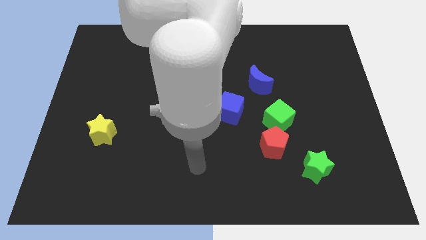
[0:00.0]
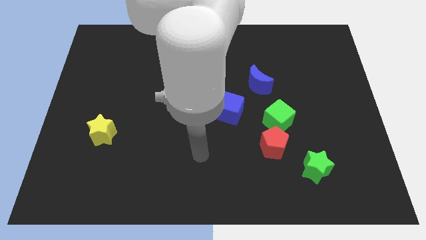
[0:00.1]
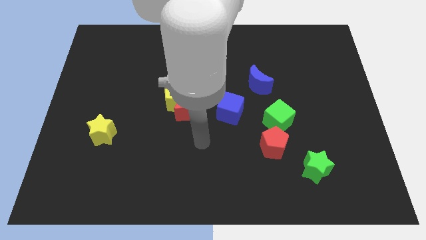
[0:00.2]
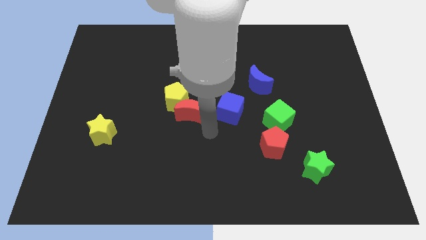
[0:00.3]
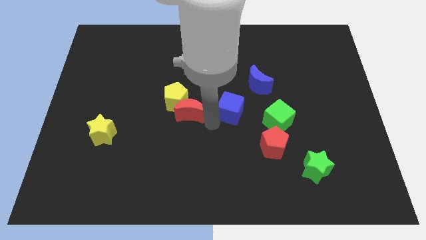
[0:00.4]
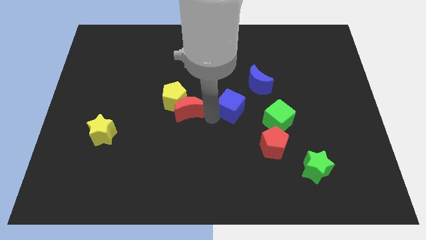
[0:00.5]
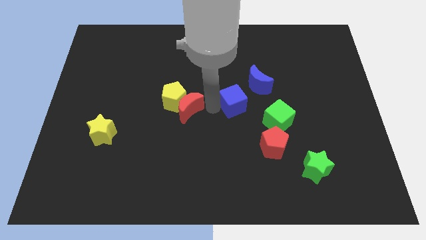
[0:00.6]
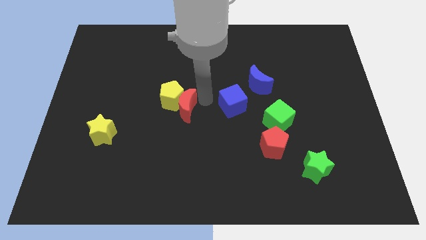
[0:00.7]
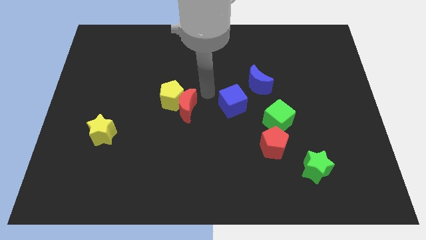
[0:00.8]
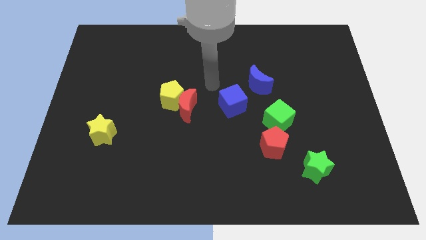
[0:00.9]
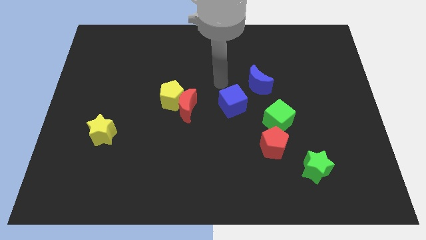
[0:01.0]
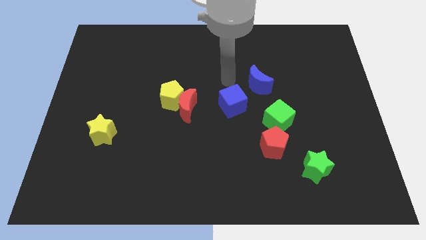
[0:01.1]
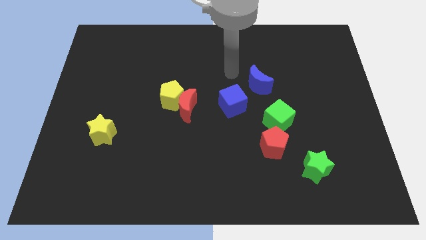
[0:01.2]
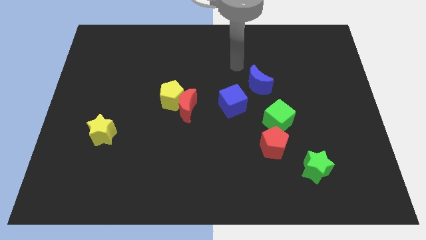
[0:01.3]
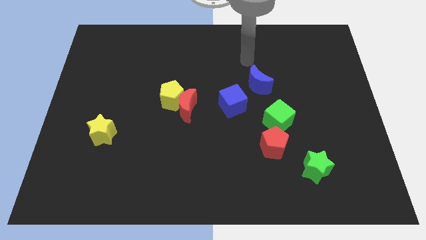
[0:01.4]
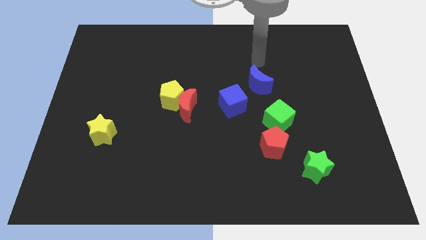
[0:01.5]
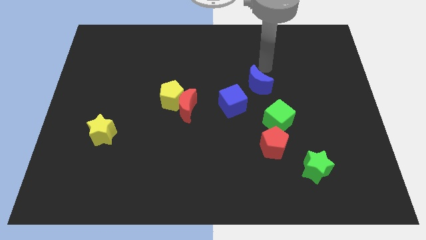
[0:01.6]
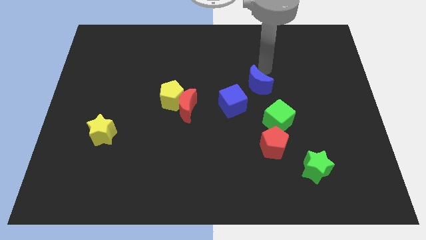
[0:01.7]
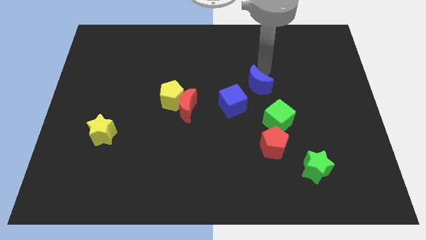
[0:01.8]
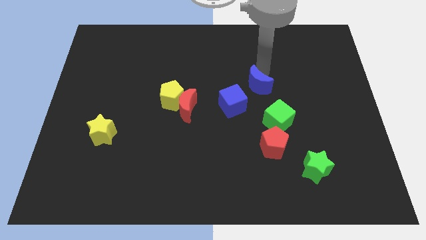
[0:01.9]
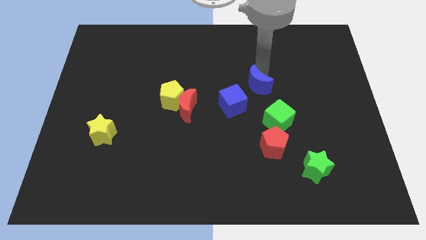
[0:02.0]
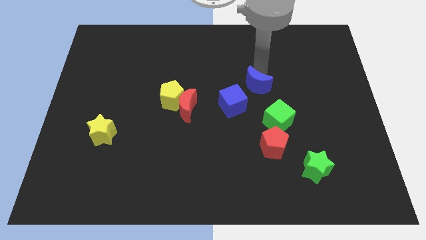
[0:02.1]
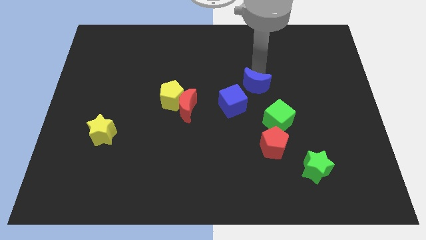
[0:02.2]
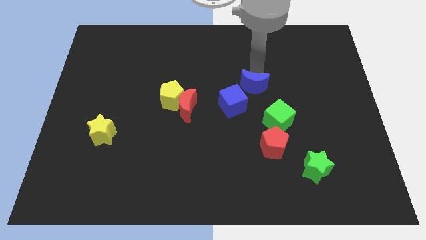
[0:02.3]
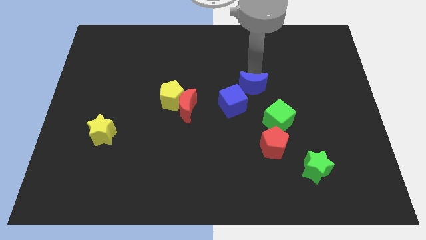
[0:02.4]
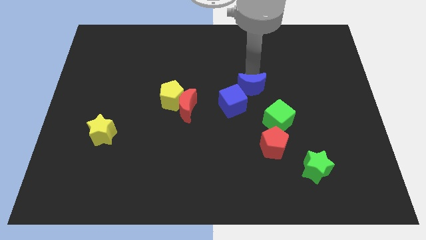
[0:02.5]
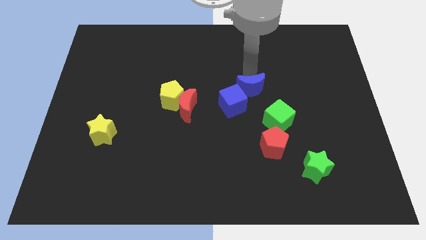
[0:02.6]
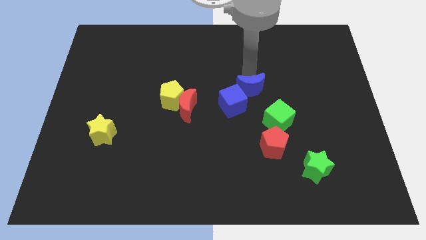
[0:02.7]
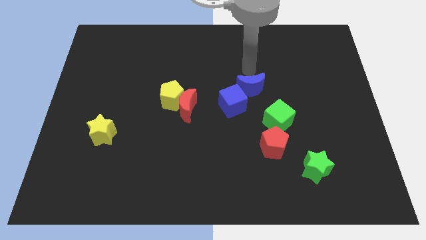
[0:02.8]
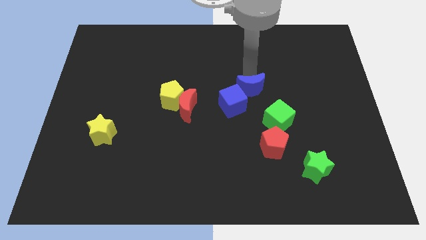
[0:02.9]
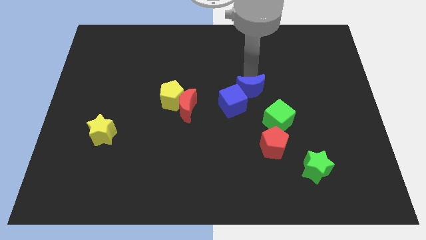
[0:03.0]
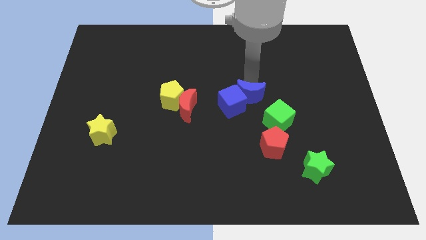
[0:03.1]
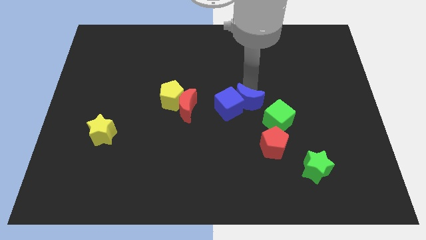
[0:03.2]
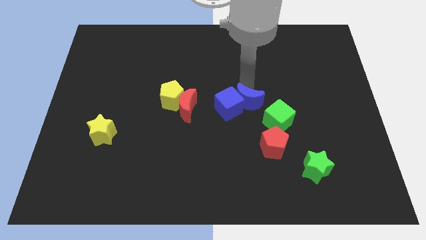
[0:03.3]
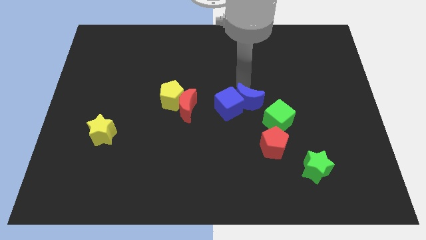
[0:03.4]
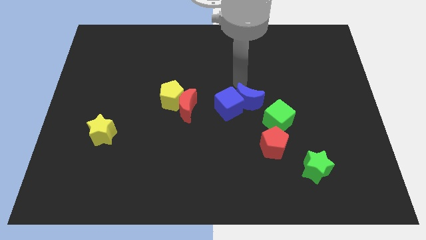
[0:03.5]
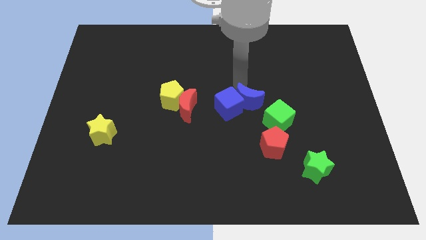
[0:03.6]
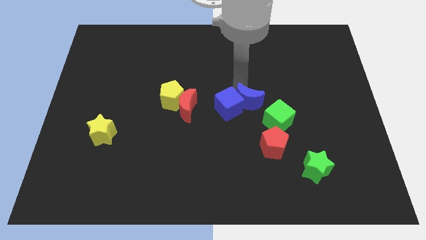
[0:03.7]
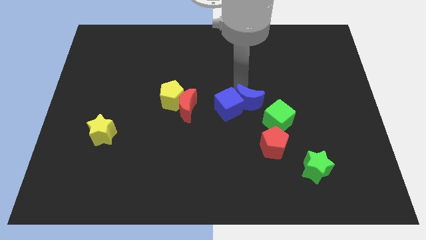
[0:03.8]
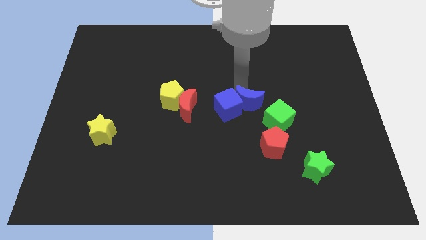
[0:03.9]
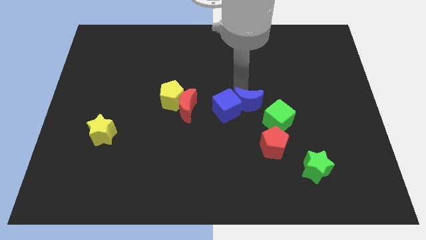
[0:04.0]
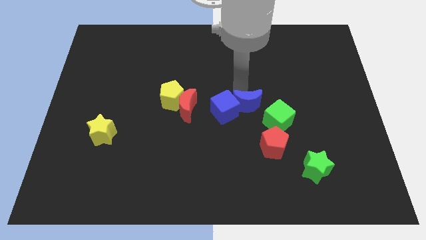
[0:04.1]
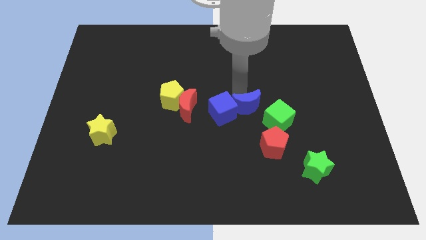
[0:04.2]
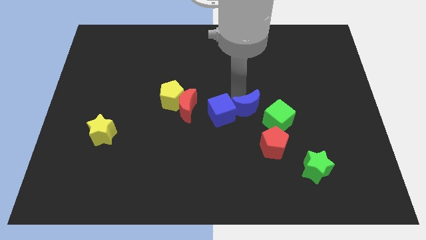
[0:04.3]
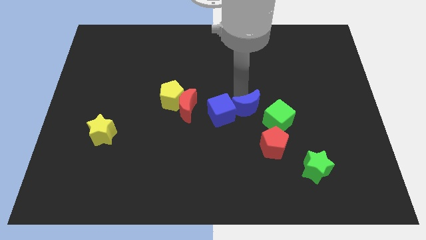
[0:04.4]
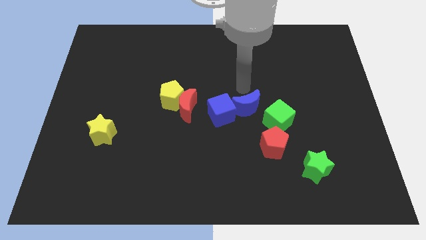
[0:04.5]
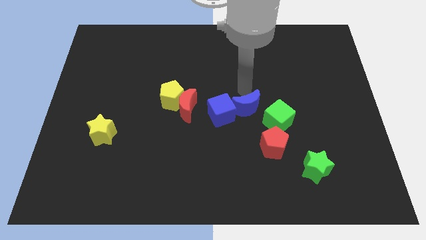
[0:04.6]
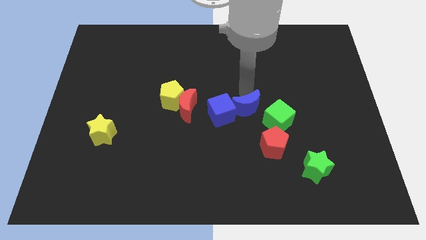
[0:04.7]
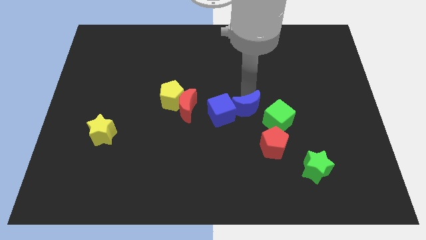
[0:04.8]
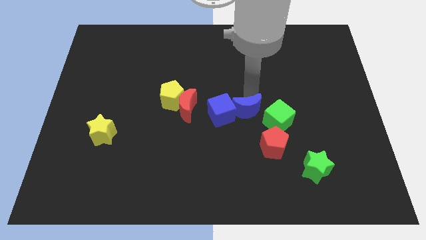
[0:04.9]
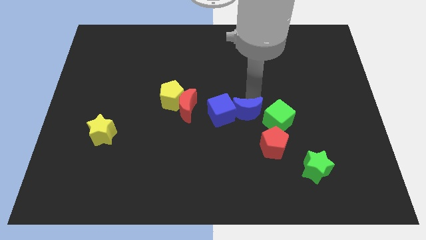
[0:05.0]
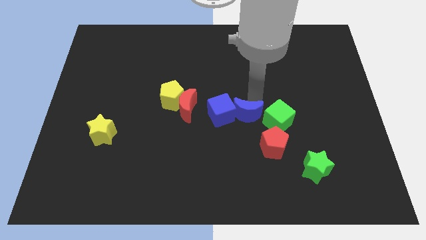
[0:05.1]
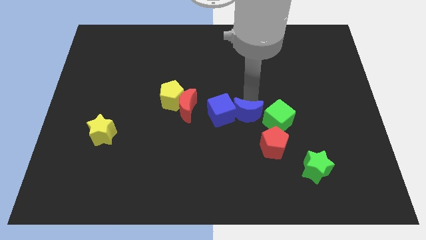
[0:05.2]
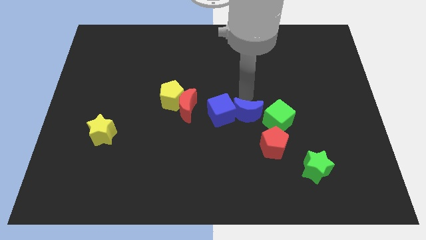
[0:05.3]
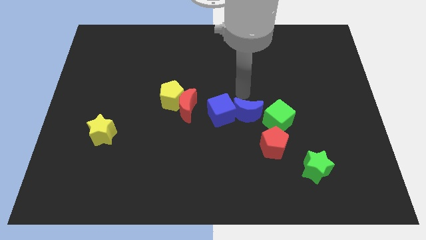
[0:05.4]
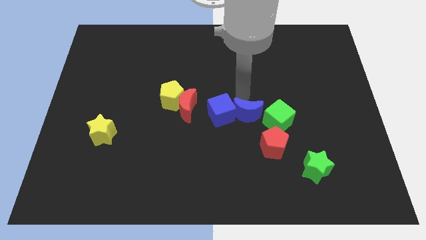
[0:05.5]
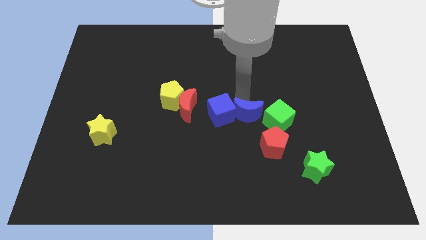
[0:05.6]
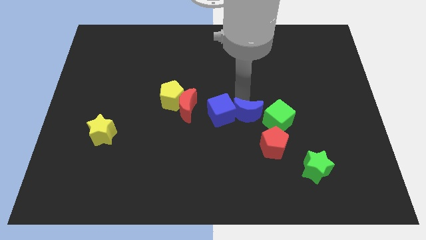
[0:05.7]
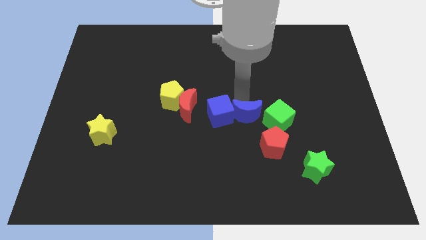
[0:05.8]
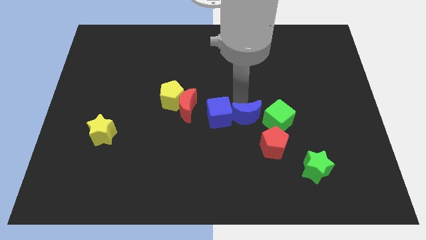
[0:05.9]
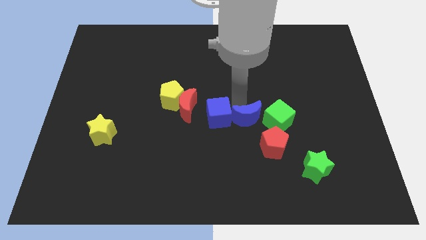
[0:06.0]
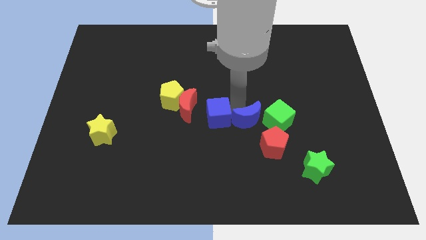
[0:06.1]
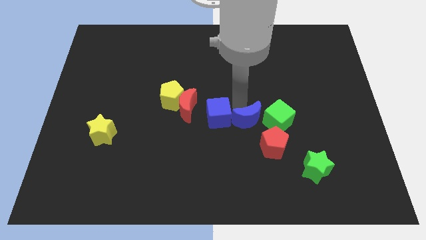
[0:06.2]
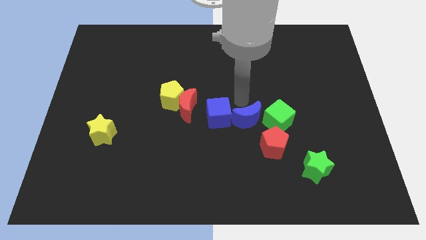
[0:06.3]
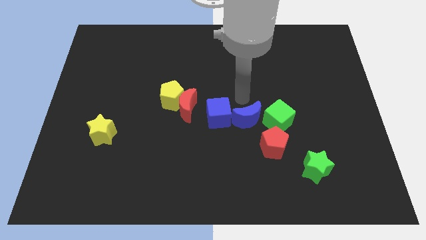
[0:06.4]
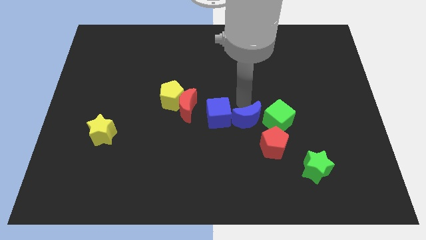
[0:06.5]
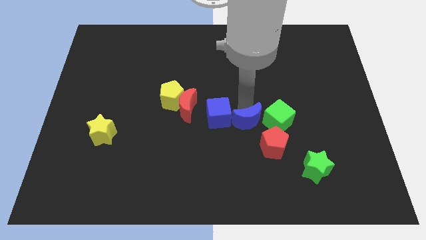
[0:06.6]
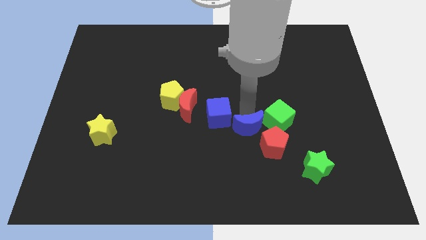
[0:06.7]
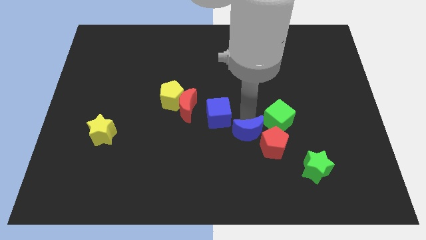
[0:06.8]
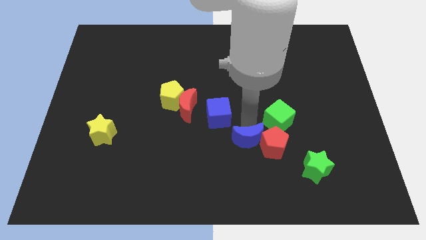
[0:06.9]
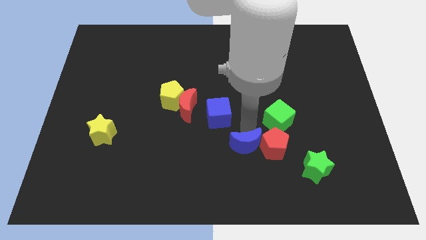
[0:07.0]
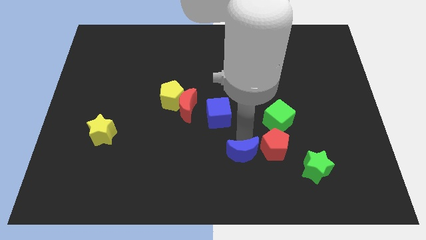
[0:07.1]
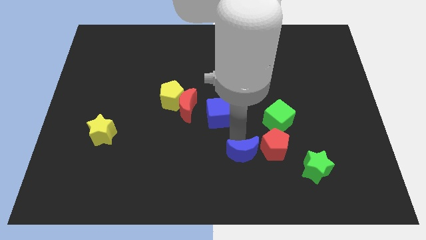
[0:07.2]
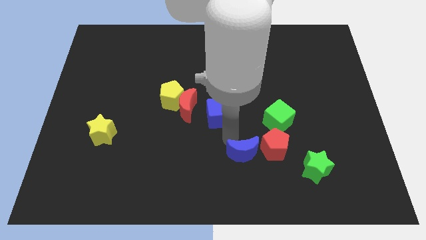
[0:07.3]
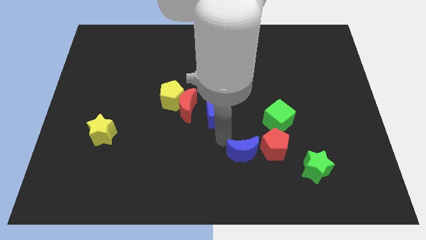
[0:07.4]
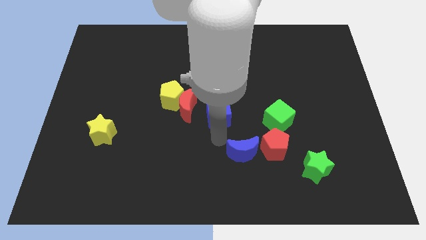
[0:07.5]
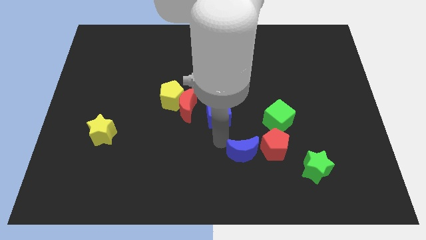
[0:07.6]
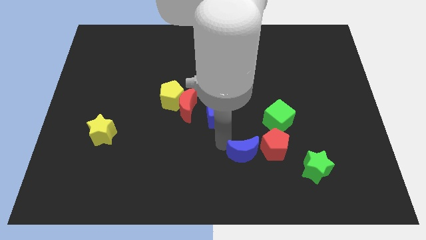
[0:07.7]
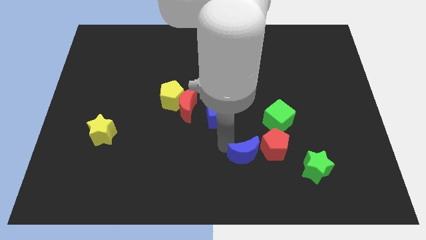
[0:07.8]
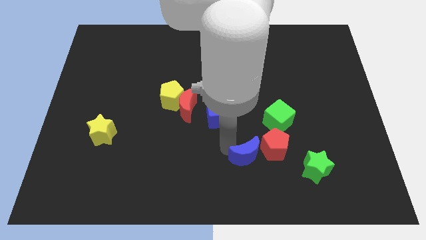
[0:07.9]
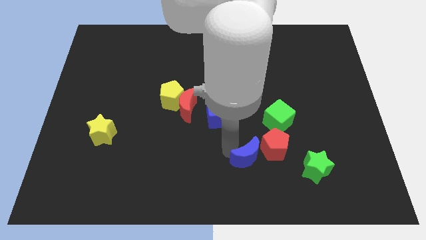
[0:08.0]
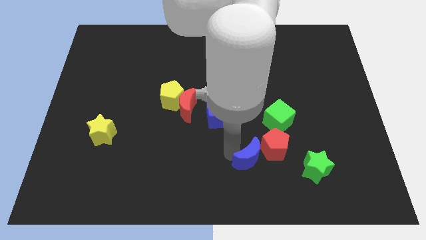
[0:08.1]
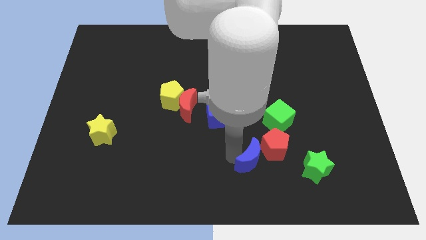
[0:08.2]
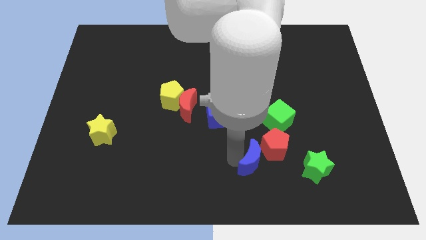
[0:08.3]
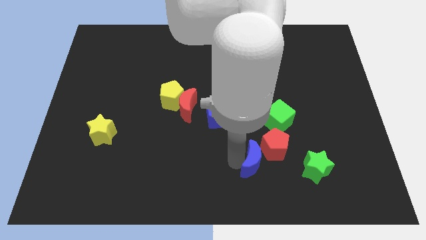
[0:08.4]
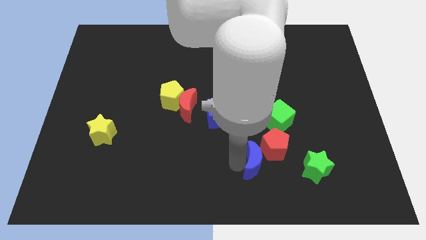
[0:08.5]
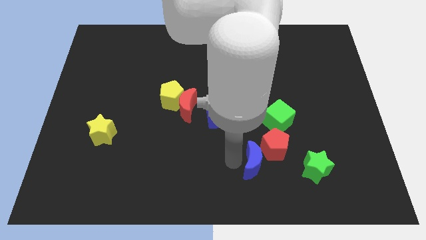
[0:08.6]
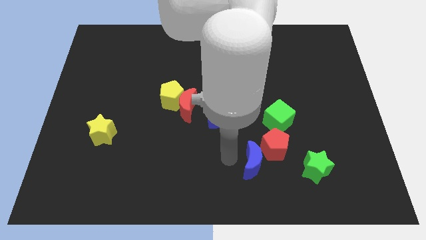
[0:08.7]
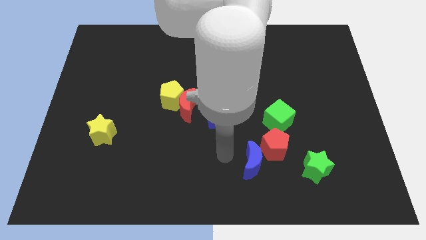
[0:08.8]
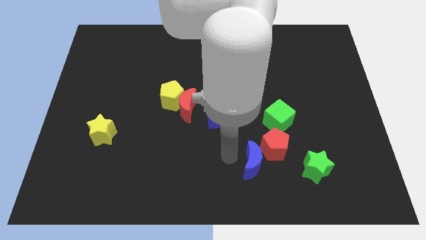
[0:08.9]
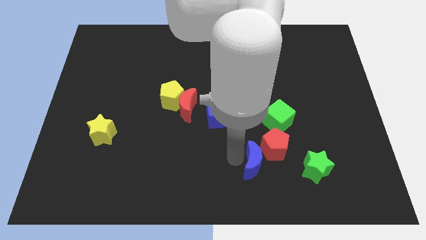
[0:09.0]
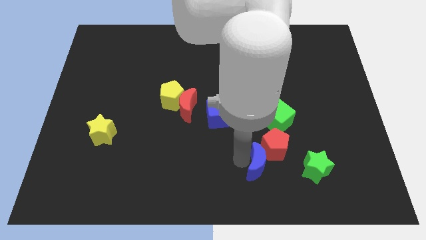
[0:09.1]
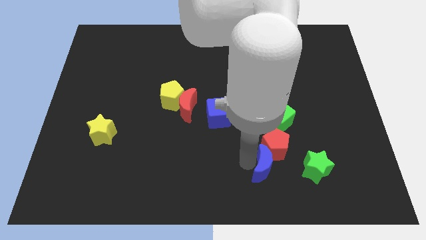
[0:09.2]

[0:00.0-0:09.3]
put the blue moon to the bottom of the green cube
